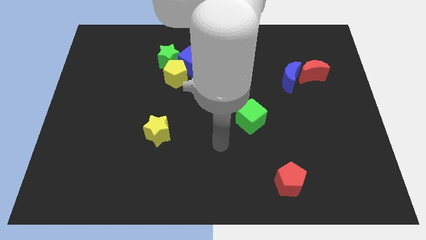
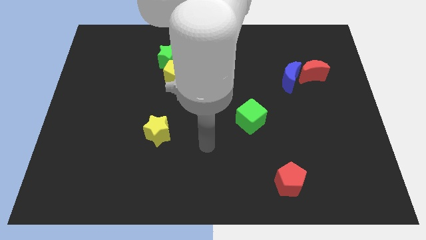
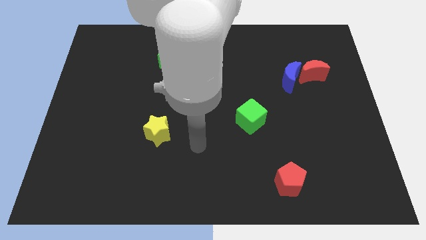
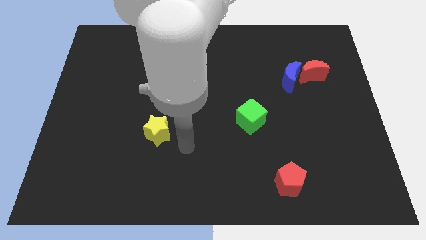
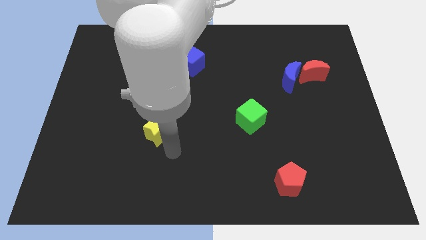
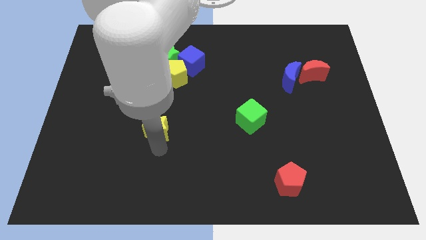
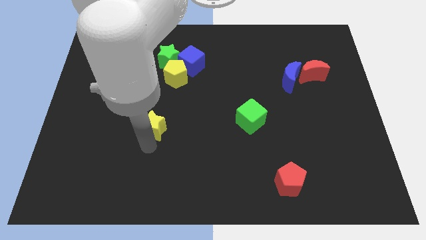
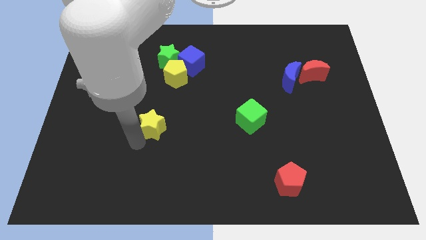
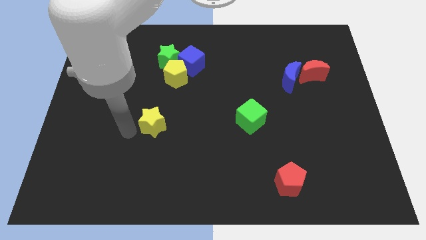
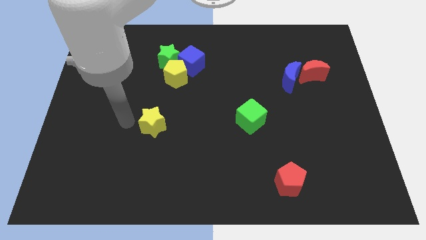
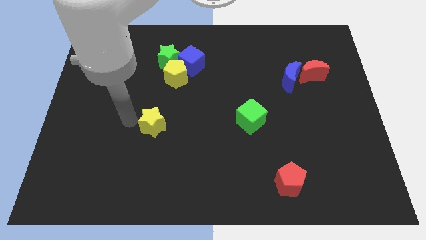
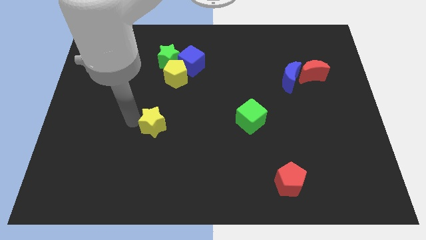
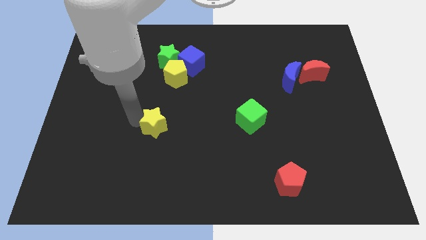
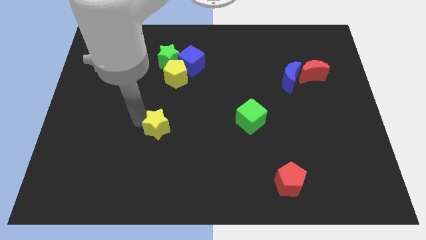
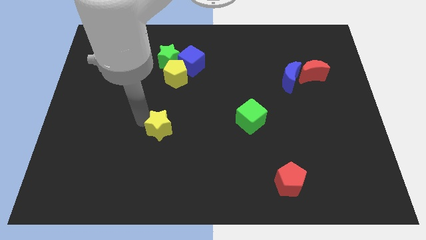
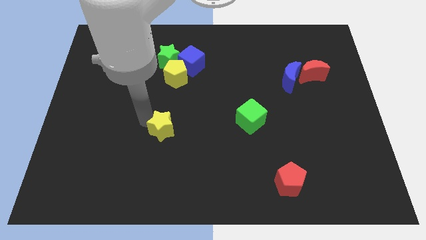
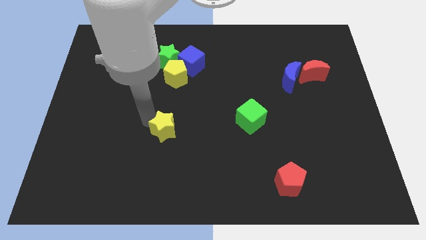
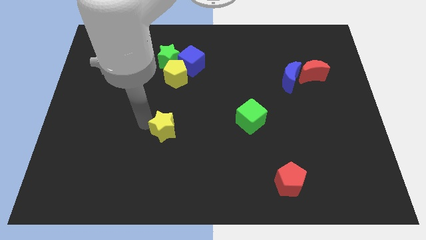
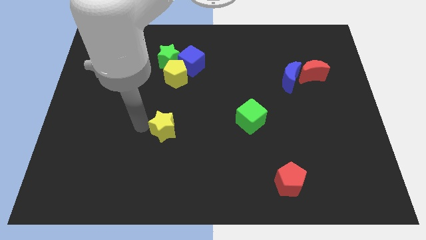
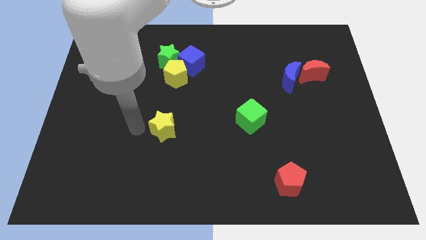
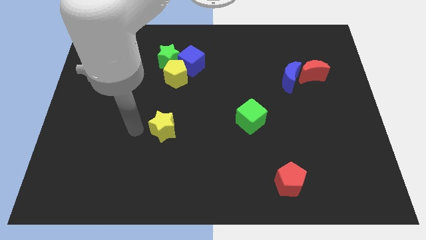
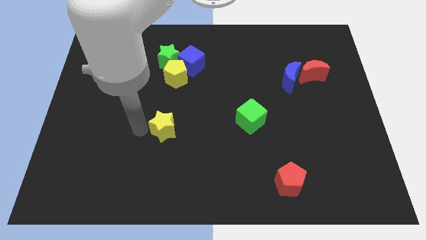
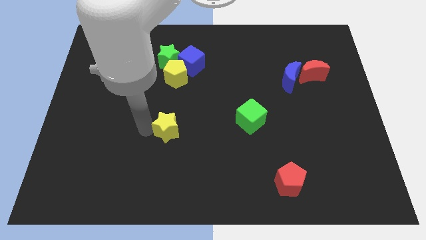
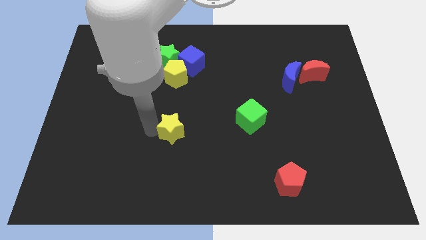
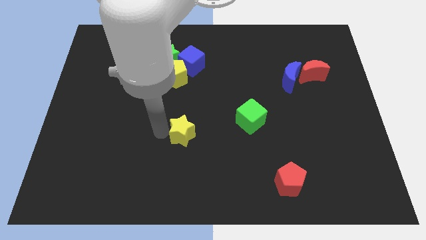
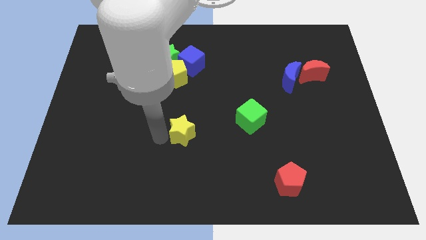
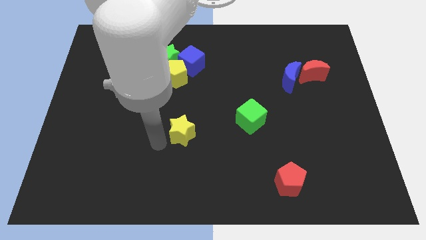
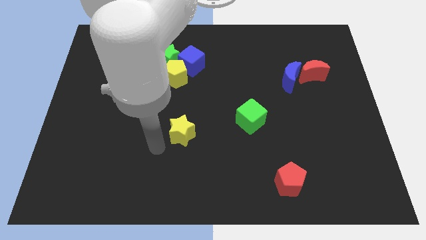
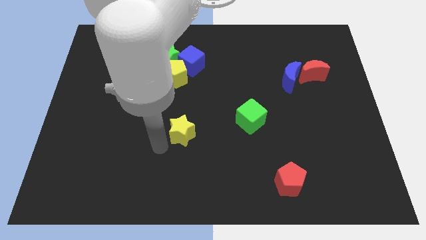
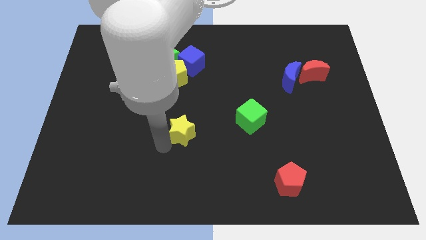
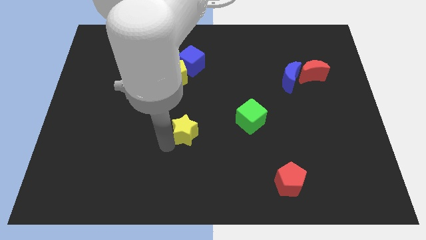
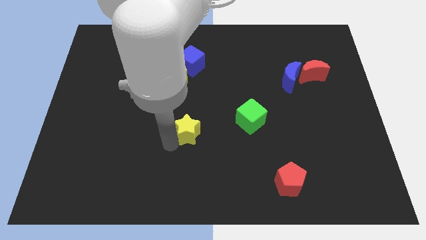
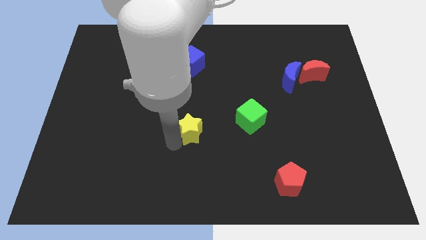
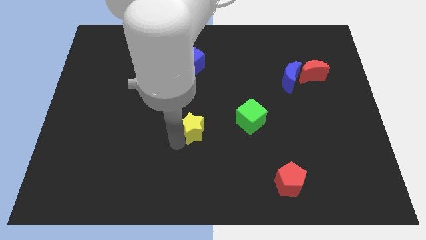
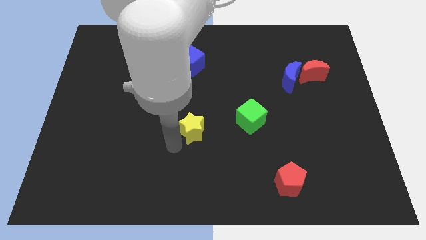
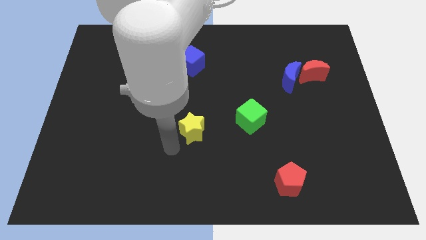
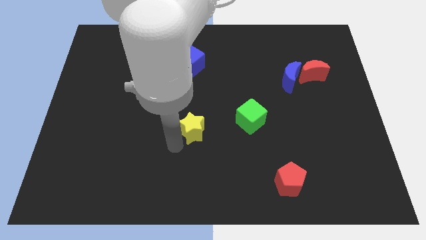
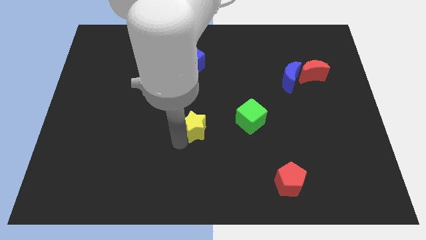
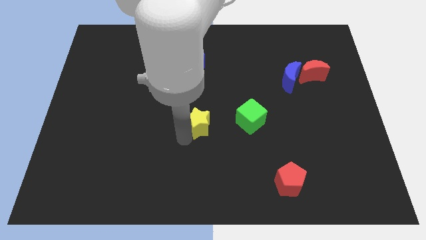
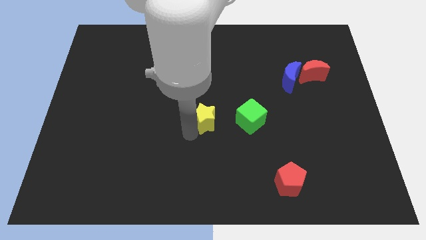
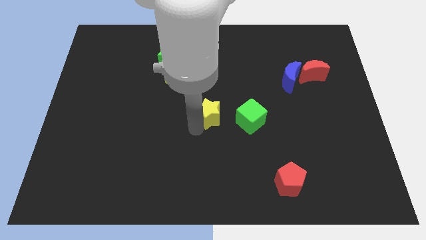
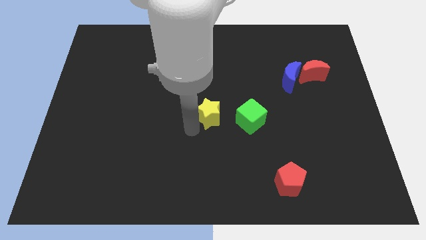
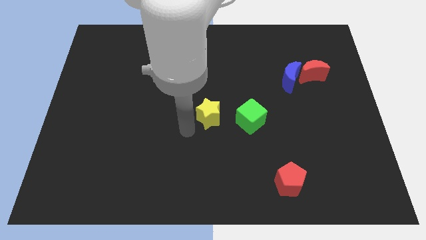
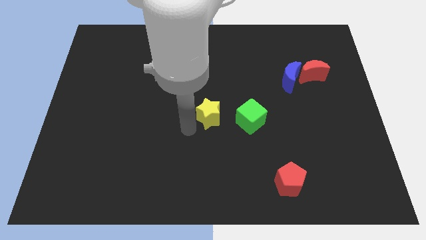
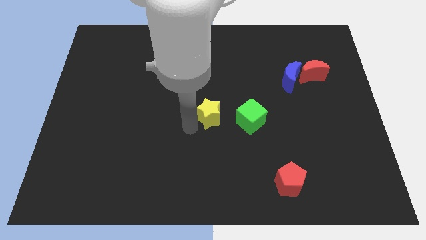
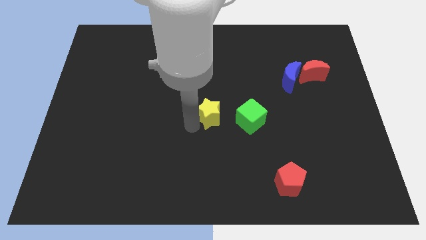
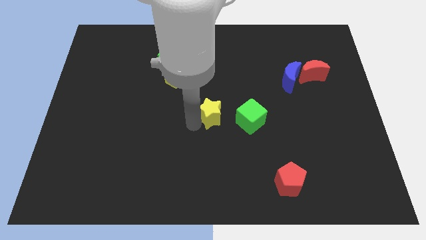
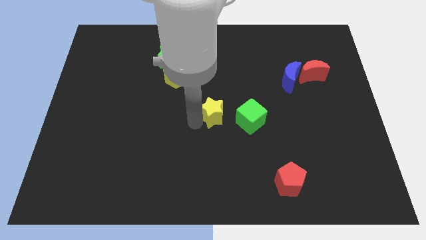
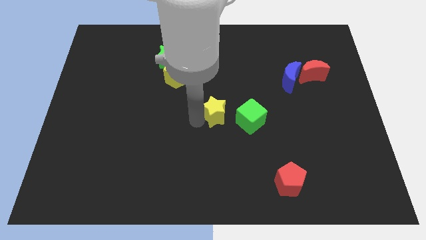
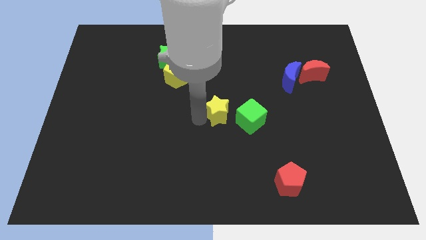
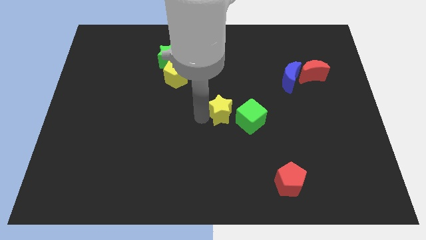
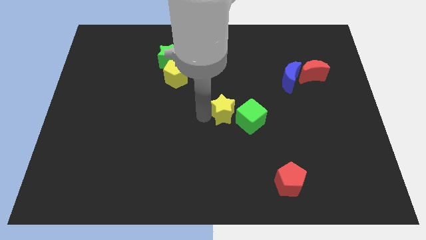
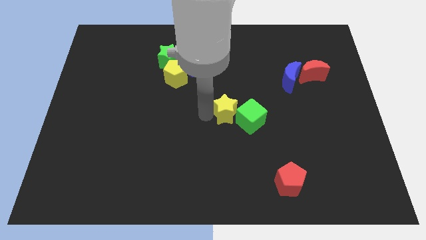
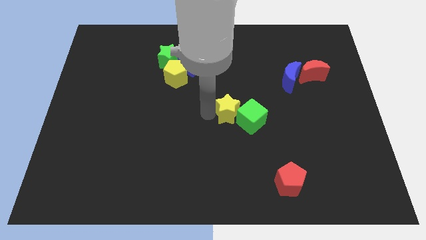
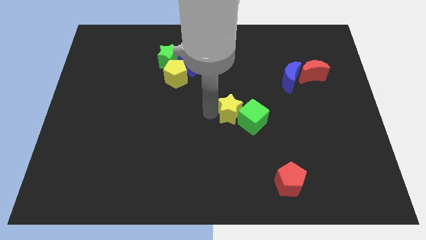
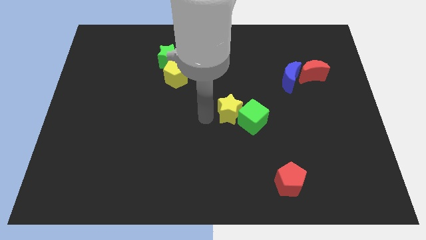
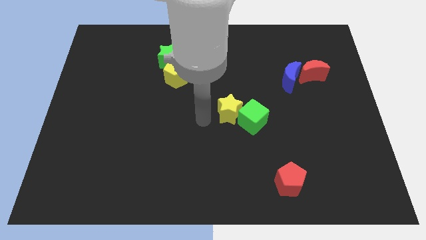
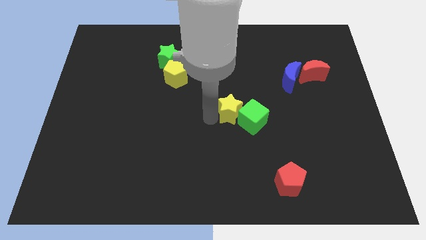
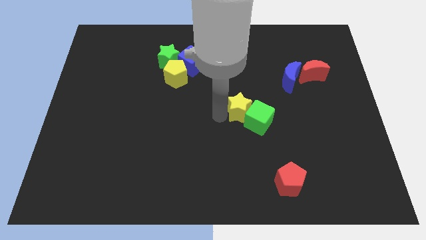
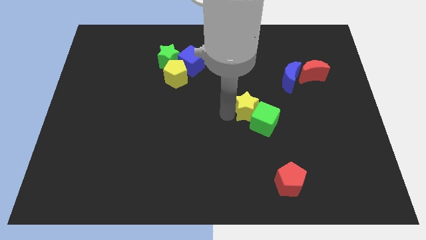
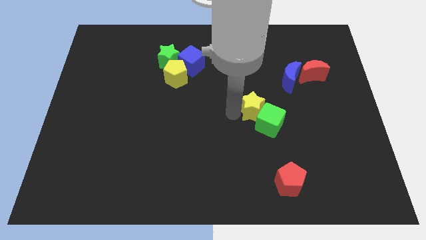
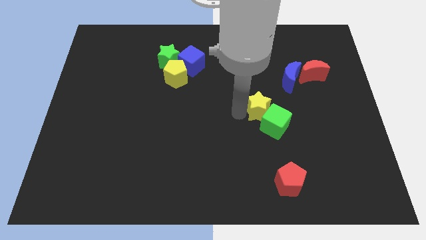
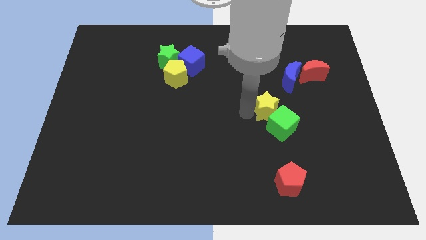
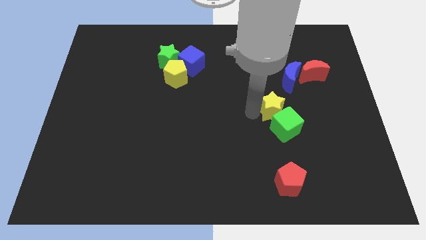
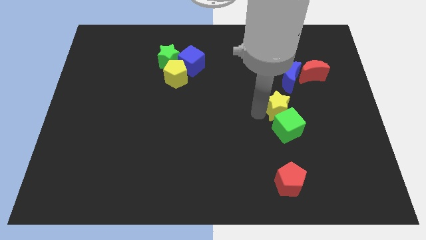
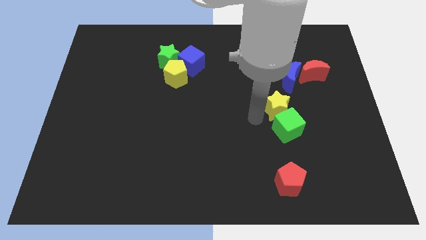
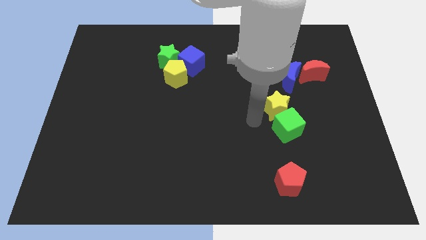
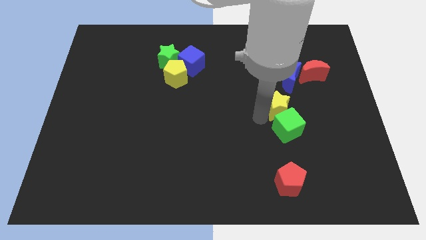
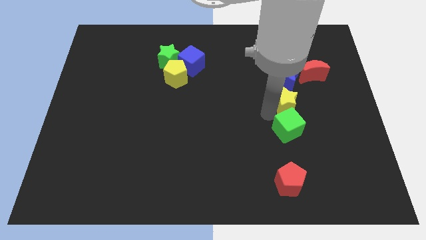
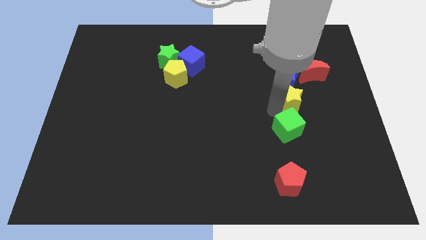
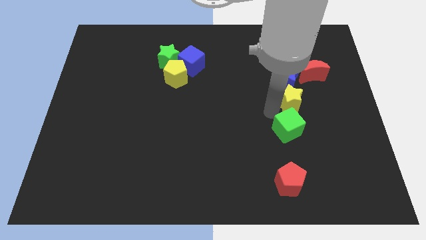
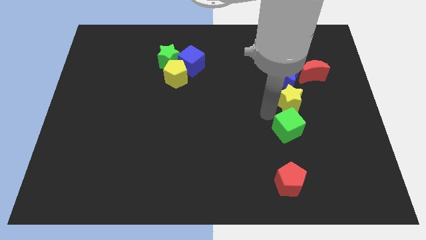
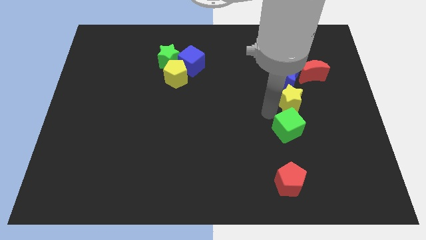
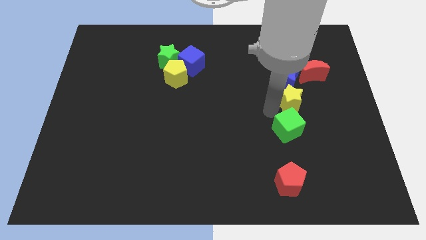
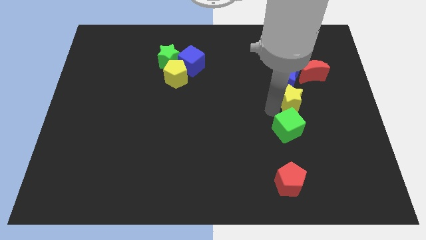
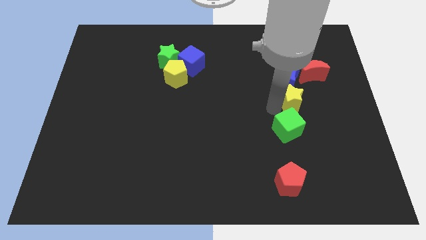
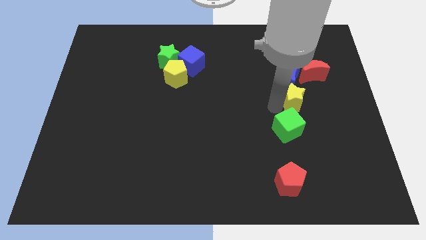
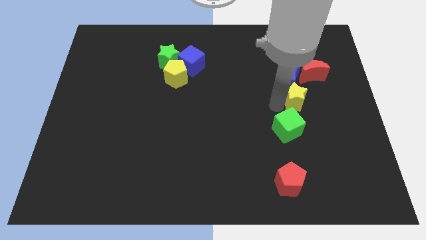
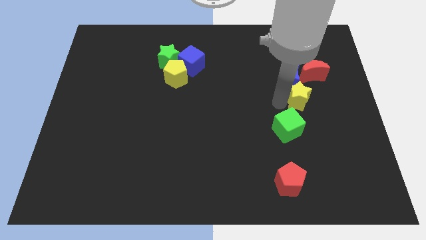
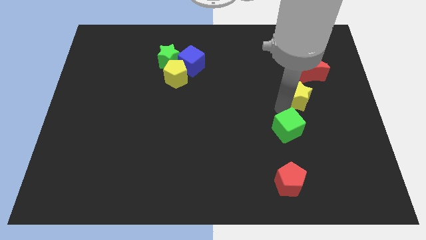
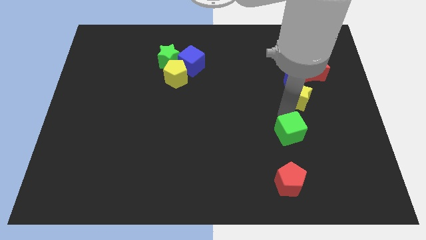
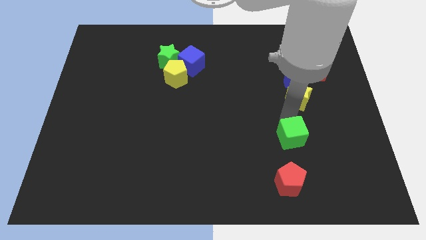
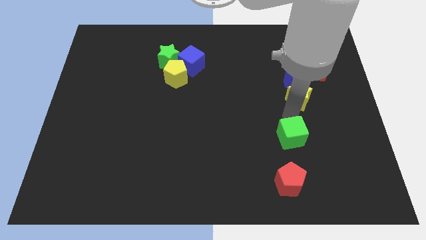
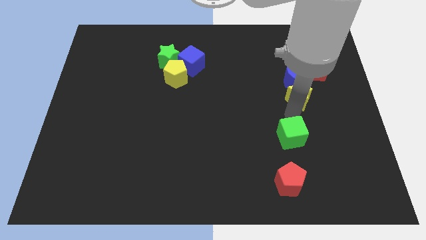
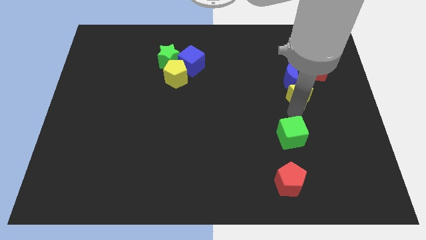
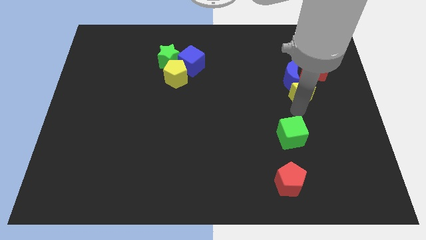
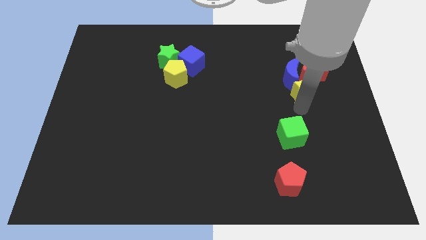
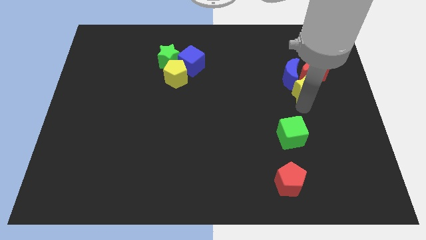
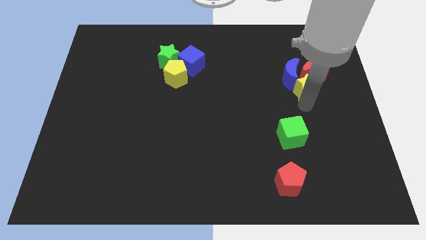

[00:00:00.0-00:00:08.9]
put the yellow star to the red moon
